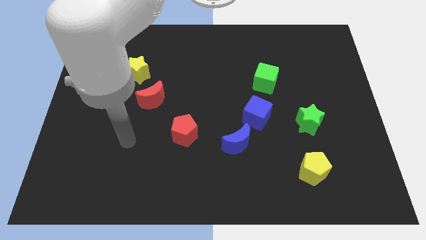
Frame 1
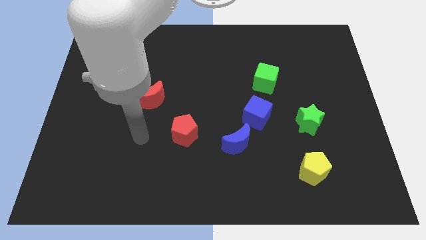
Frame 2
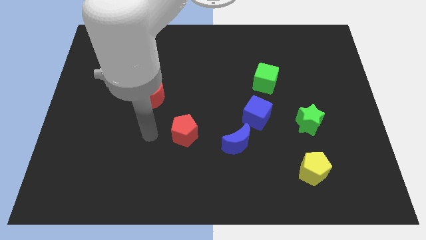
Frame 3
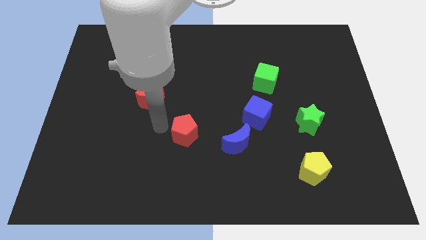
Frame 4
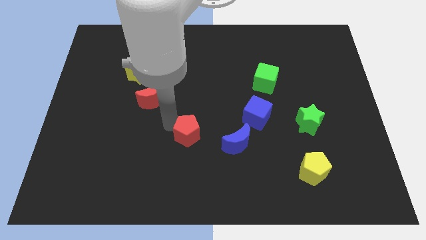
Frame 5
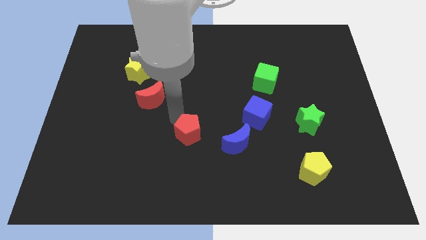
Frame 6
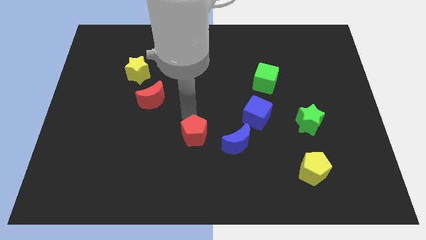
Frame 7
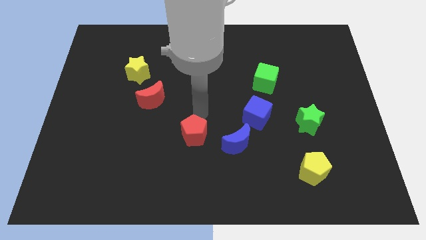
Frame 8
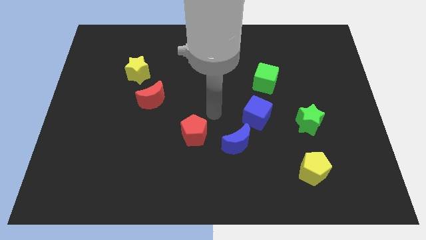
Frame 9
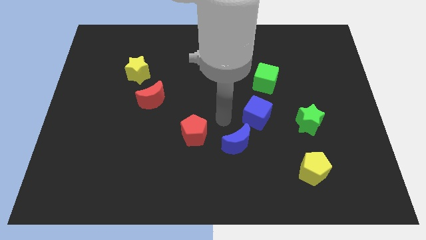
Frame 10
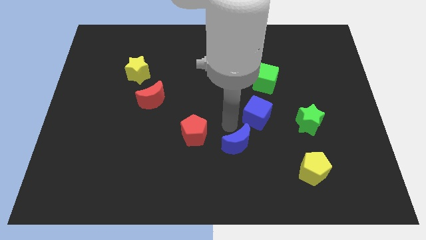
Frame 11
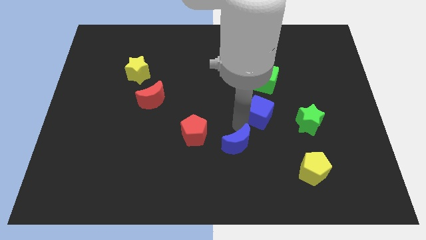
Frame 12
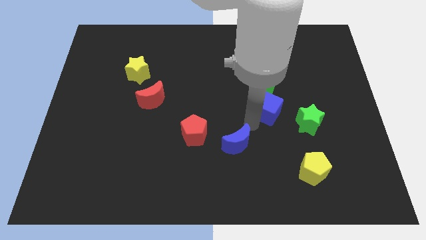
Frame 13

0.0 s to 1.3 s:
move the blue moon away from the blue cube

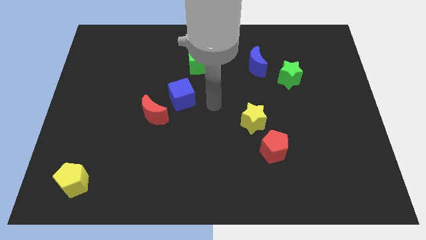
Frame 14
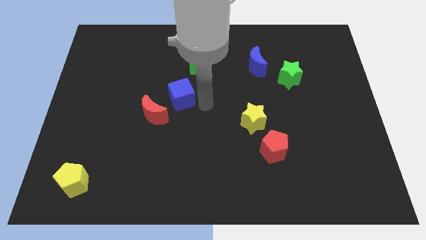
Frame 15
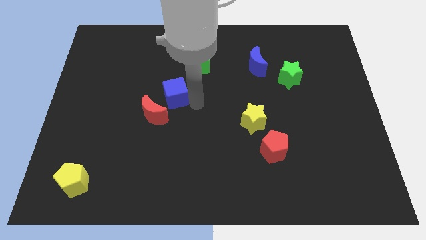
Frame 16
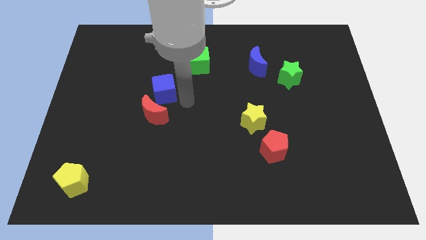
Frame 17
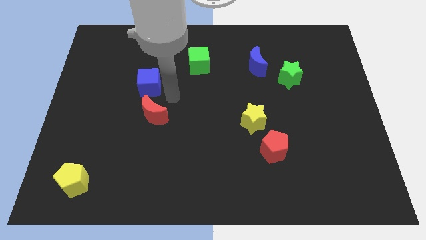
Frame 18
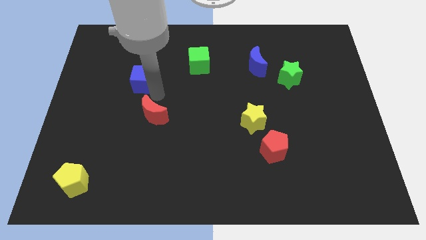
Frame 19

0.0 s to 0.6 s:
move the red moon away from the blue cube

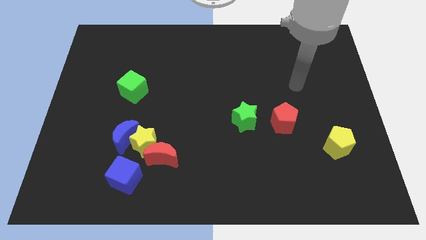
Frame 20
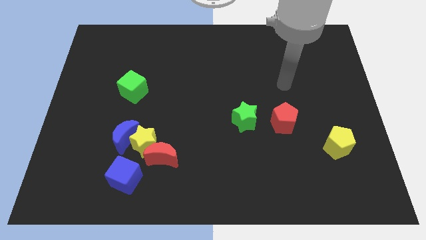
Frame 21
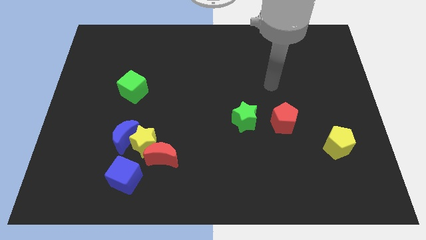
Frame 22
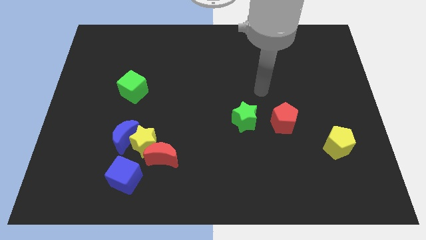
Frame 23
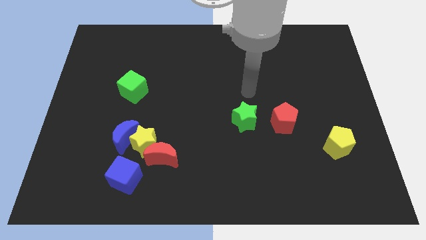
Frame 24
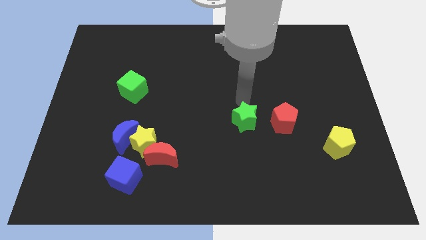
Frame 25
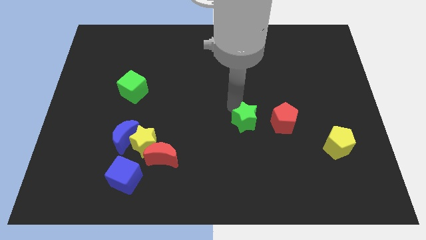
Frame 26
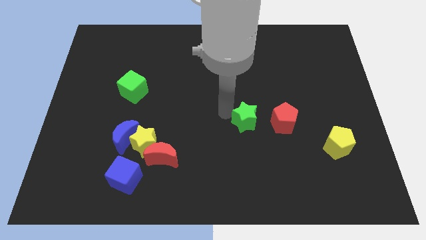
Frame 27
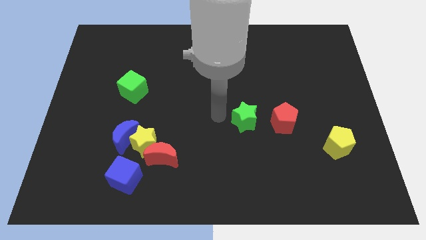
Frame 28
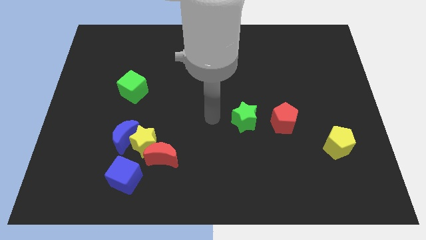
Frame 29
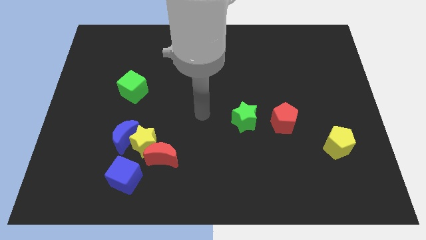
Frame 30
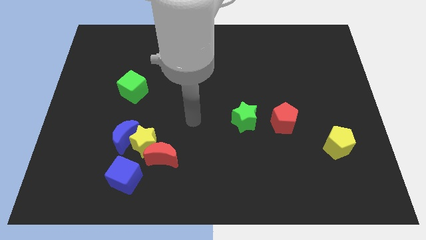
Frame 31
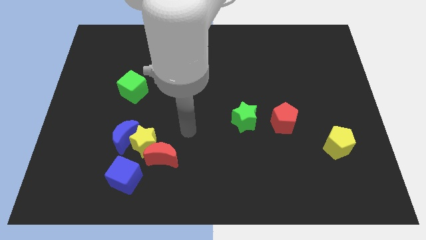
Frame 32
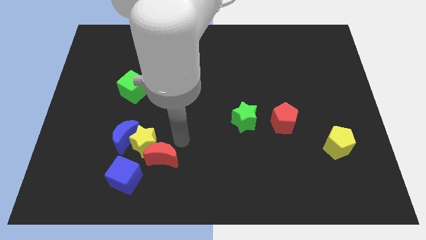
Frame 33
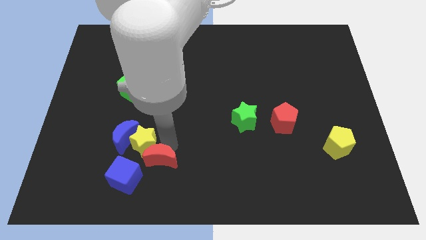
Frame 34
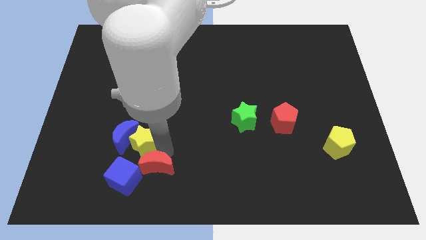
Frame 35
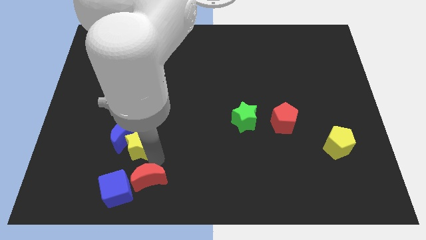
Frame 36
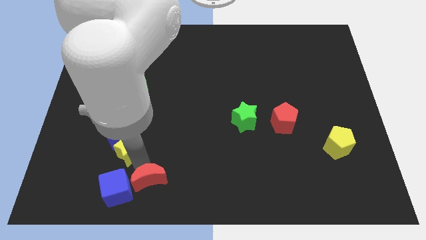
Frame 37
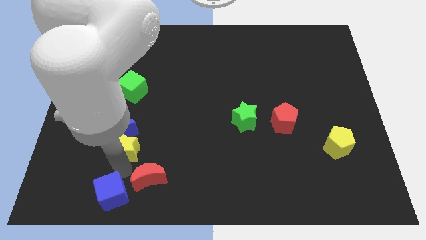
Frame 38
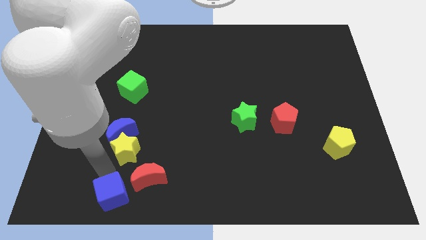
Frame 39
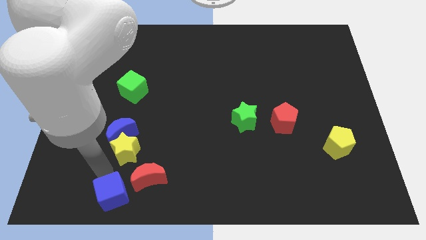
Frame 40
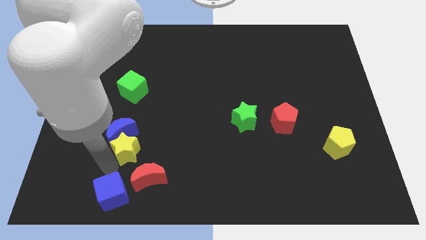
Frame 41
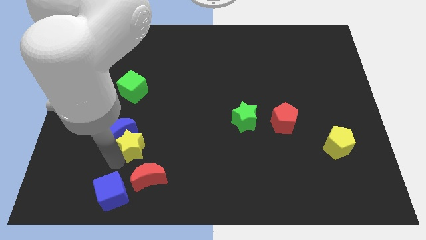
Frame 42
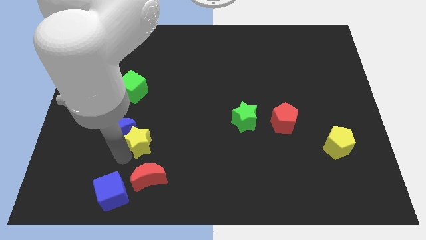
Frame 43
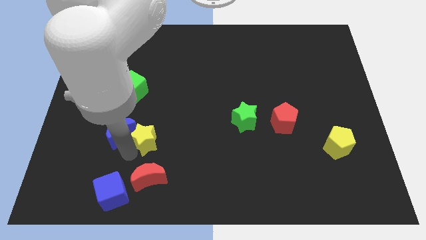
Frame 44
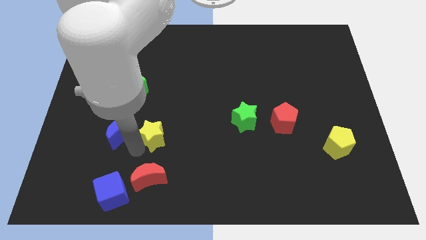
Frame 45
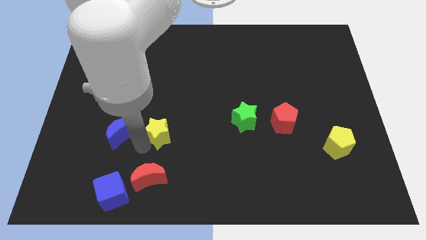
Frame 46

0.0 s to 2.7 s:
move the yellow star away from the group of blocks

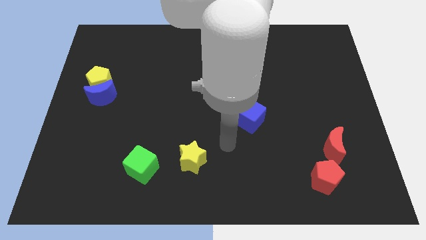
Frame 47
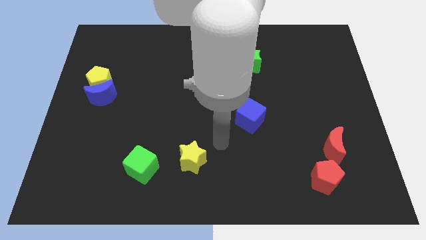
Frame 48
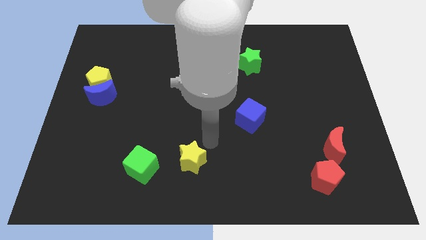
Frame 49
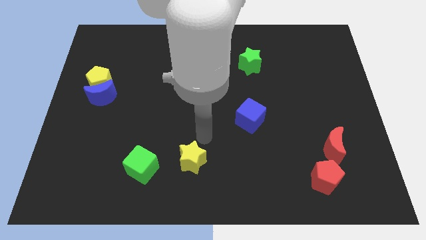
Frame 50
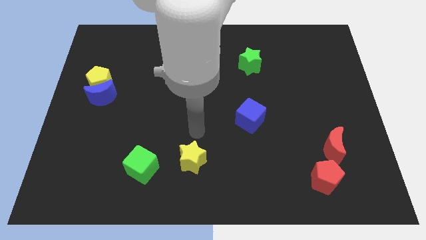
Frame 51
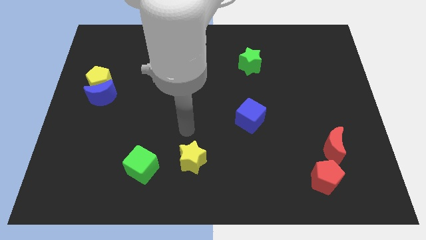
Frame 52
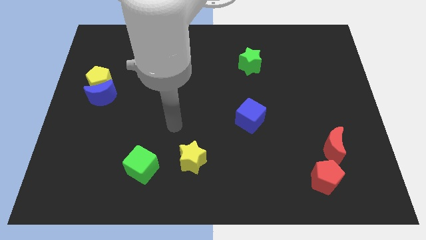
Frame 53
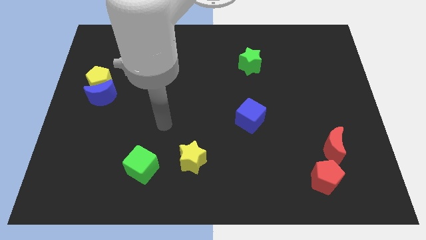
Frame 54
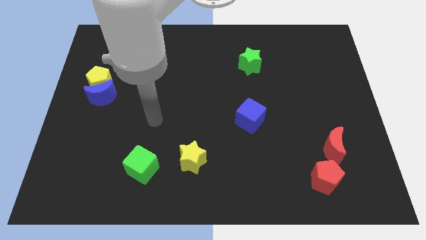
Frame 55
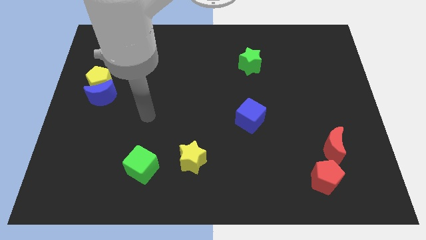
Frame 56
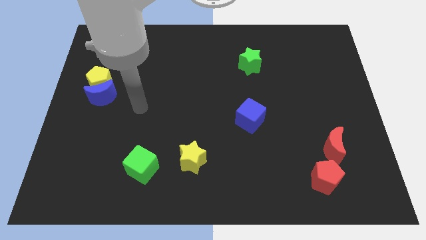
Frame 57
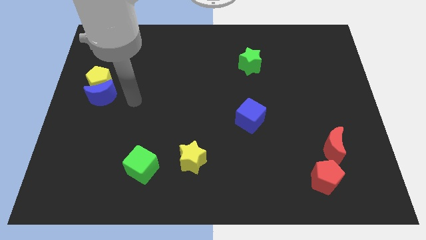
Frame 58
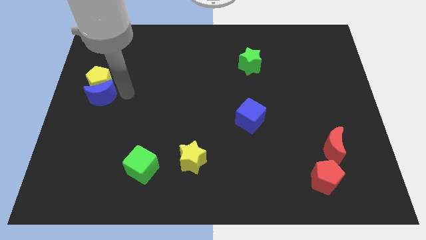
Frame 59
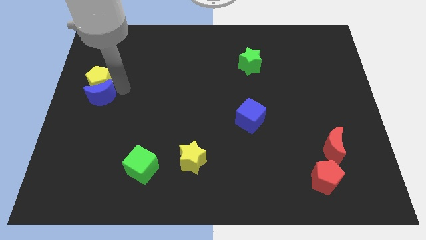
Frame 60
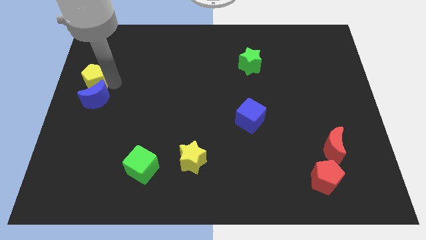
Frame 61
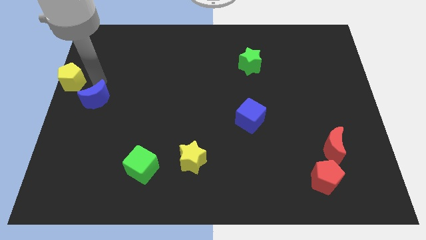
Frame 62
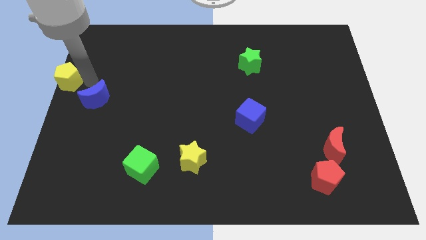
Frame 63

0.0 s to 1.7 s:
pull the blue moon apart from the yellow pentagon

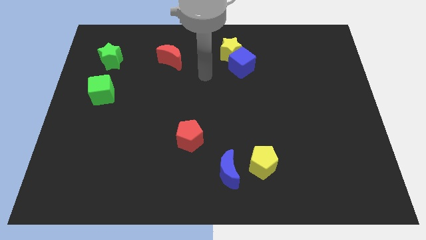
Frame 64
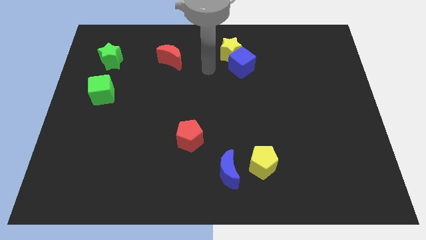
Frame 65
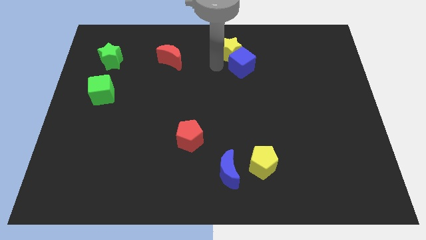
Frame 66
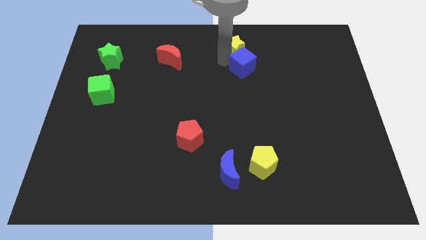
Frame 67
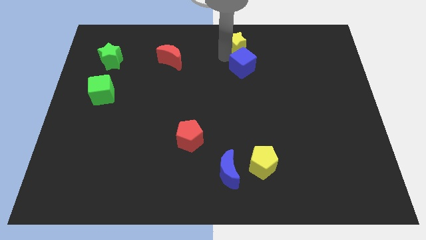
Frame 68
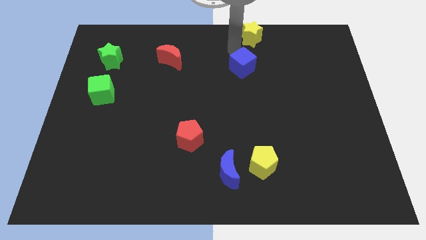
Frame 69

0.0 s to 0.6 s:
separate the blue cube from the yellow star

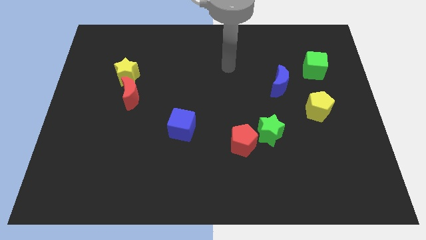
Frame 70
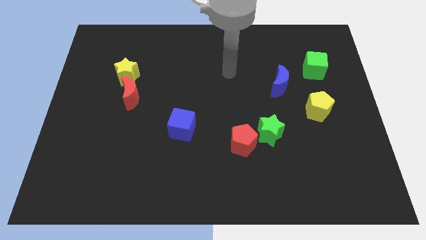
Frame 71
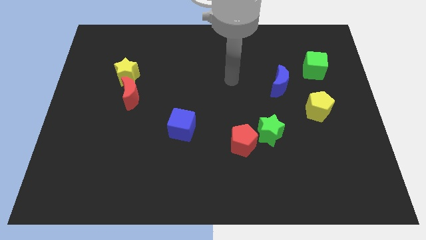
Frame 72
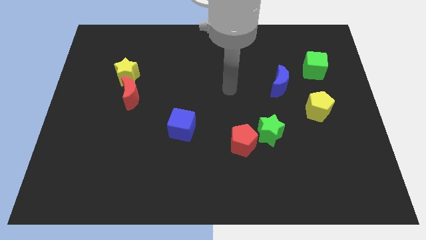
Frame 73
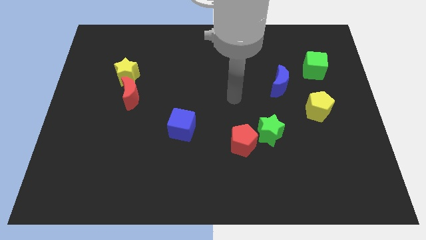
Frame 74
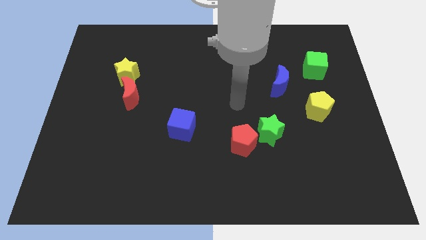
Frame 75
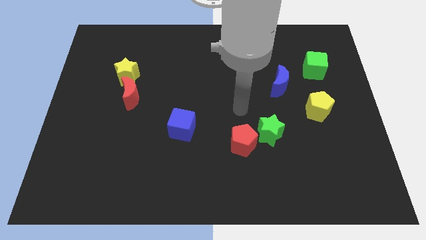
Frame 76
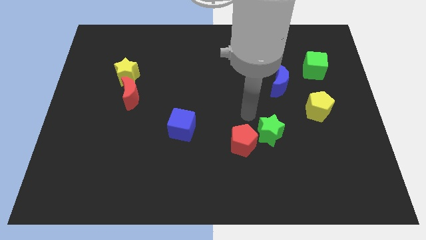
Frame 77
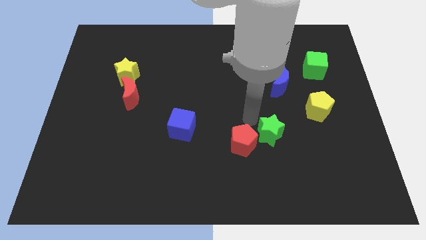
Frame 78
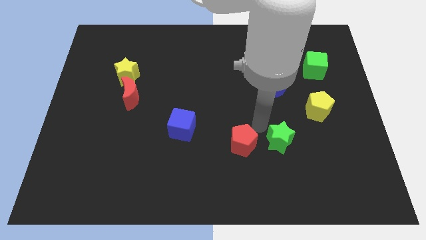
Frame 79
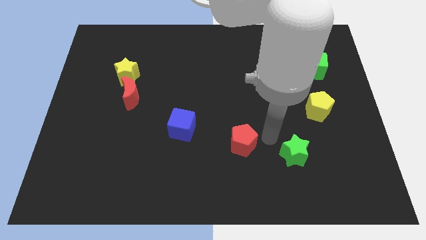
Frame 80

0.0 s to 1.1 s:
move the red pentagon away from the green star

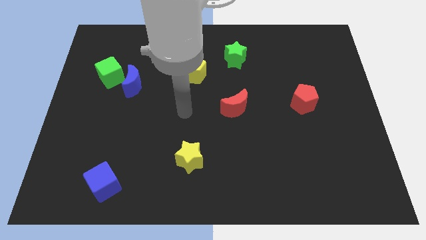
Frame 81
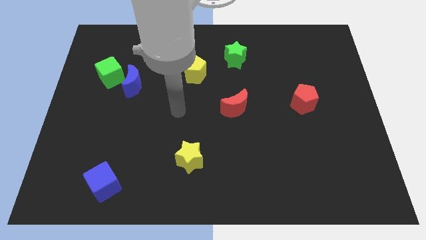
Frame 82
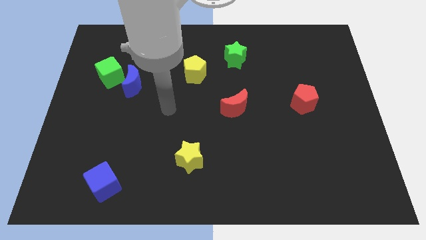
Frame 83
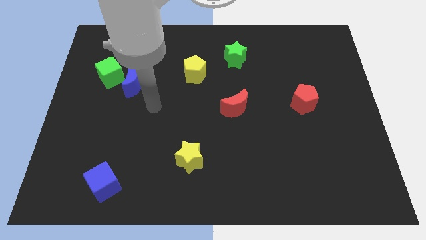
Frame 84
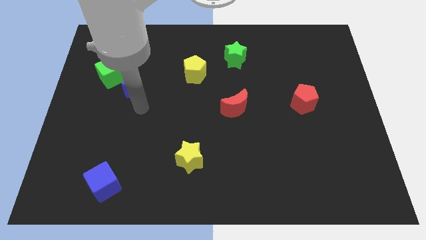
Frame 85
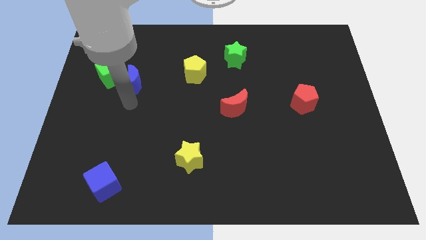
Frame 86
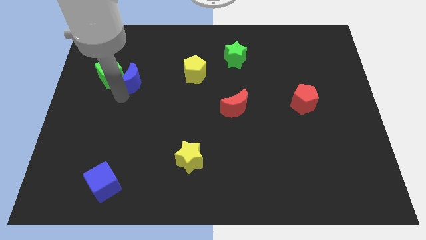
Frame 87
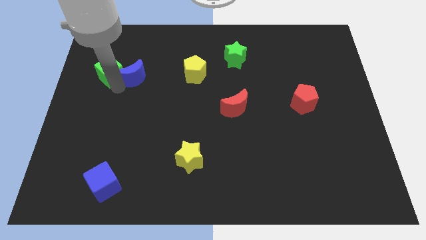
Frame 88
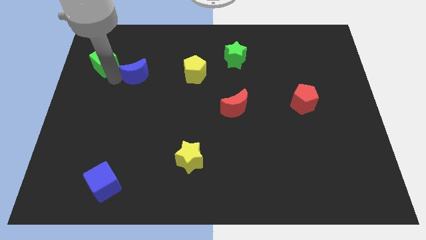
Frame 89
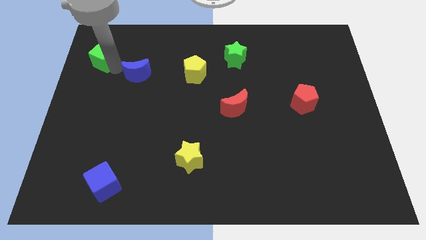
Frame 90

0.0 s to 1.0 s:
move the blue moon away from the green cube

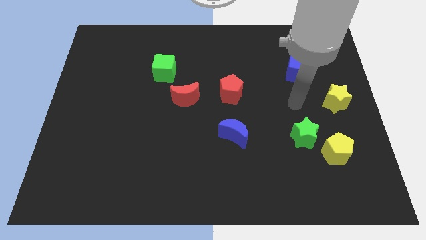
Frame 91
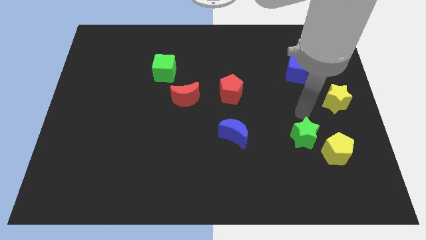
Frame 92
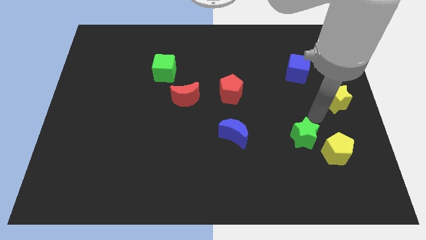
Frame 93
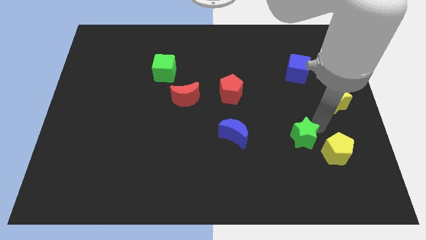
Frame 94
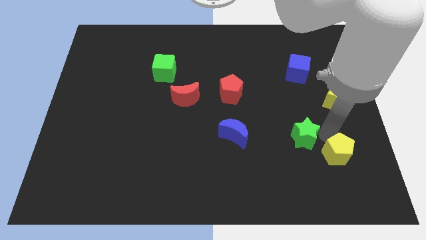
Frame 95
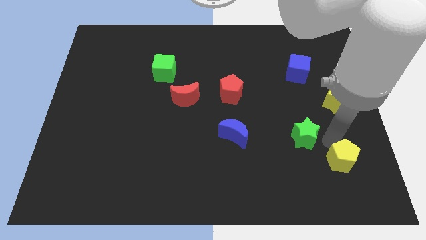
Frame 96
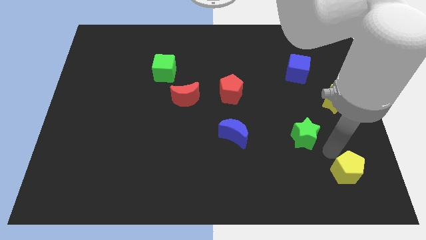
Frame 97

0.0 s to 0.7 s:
separate the green star from the yellow pentagon
